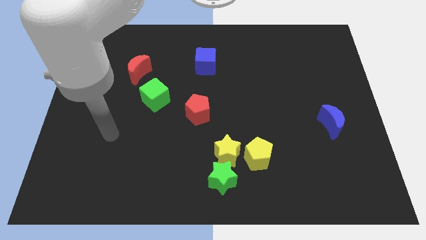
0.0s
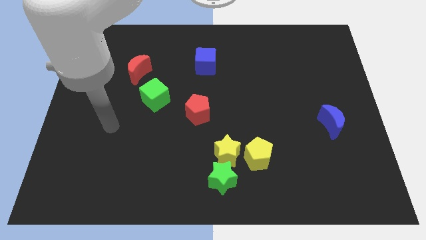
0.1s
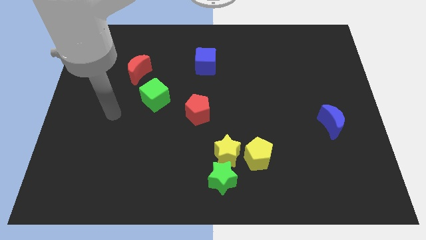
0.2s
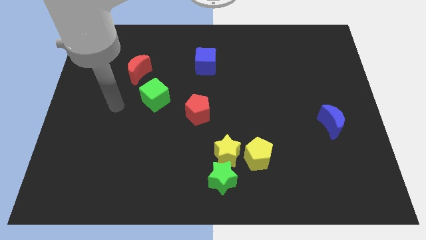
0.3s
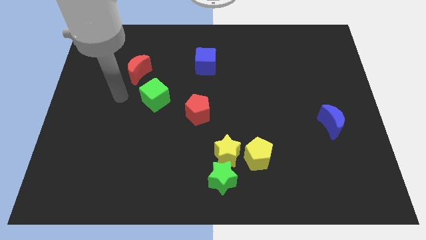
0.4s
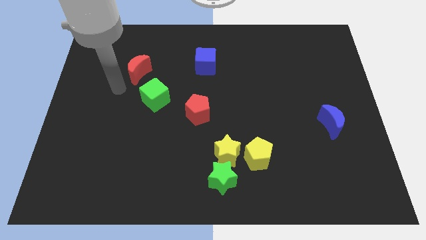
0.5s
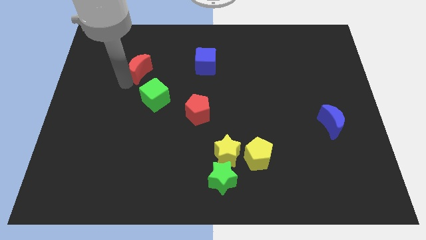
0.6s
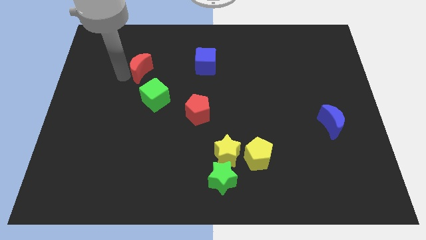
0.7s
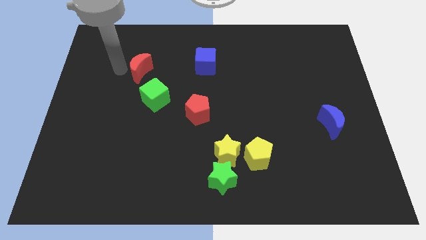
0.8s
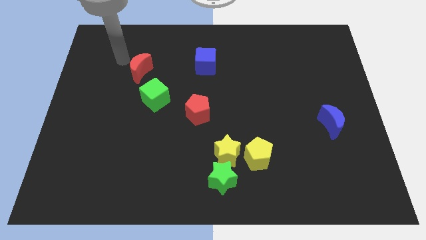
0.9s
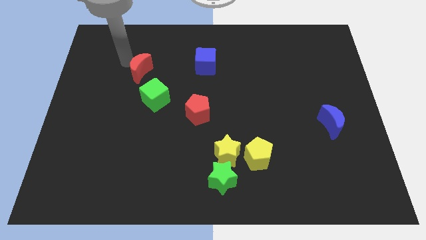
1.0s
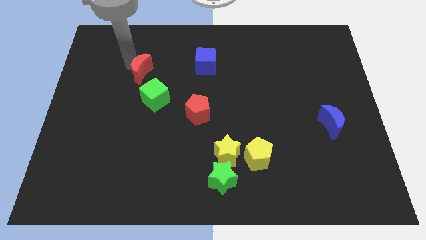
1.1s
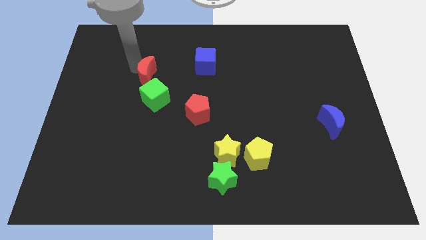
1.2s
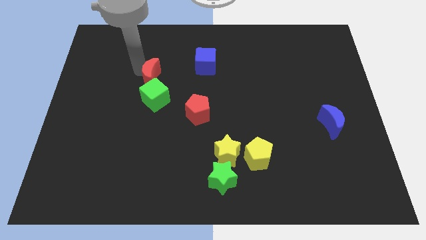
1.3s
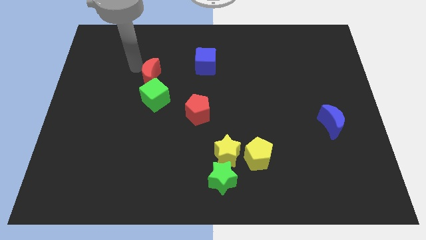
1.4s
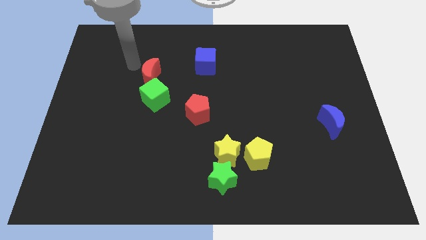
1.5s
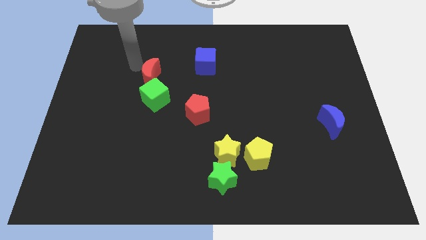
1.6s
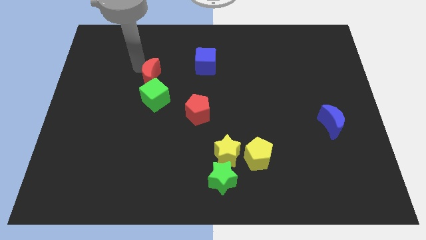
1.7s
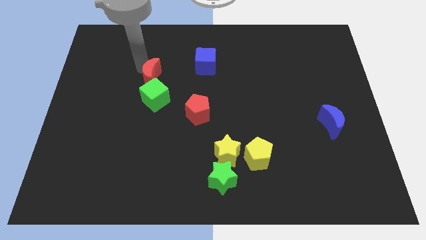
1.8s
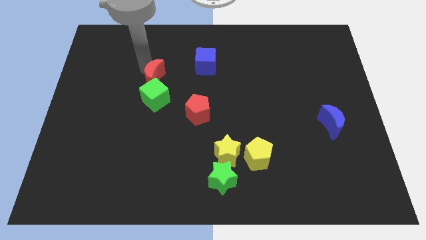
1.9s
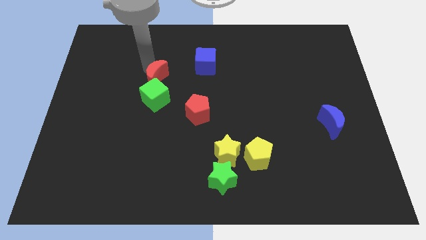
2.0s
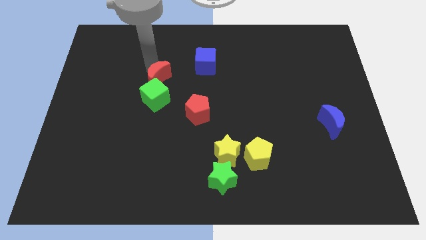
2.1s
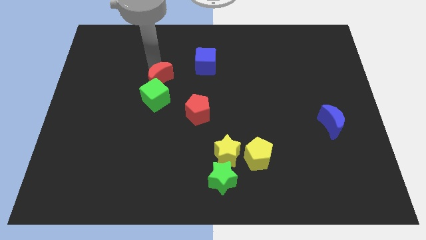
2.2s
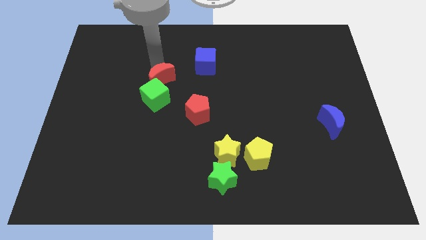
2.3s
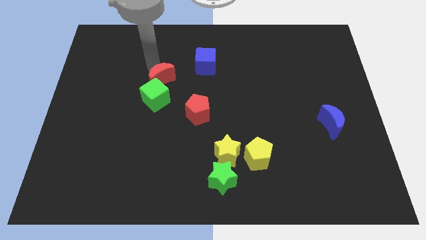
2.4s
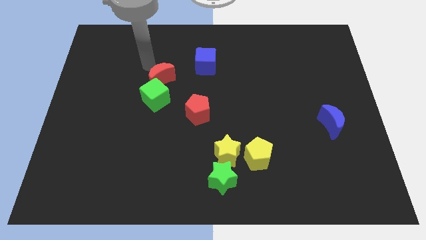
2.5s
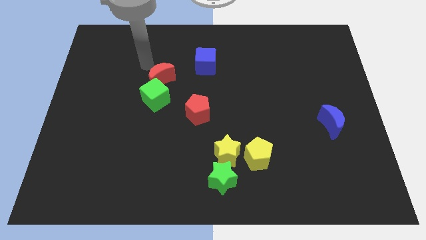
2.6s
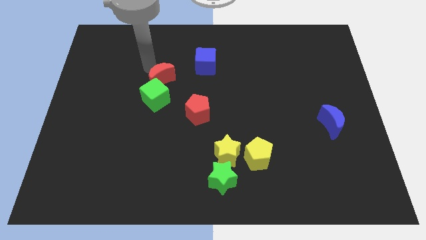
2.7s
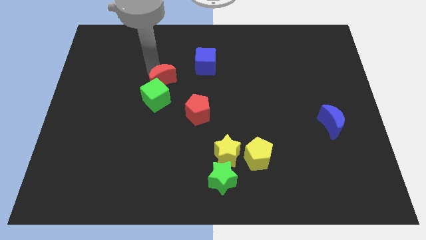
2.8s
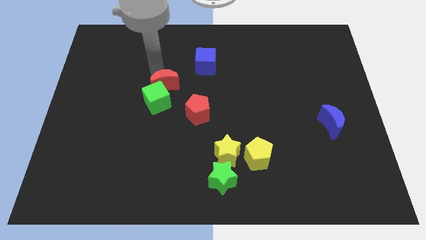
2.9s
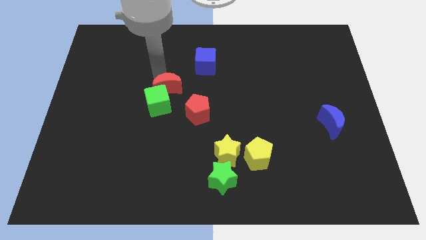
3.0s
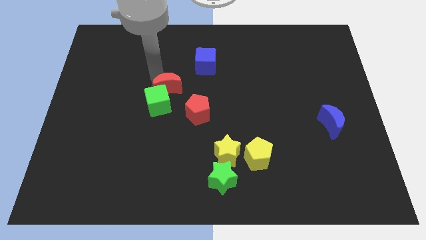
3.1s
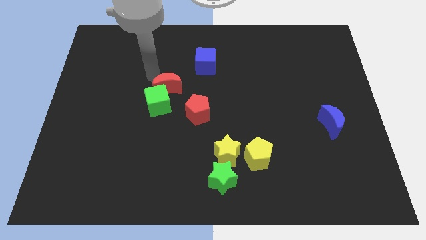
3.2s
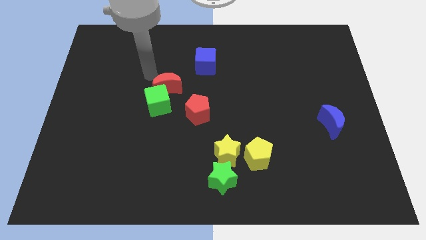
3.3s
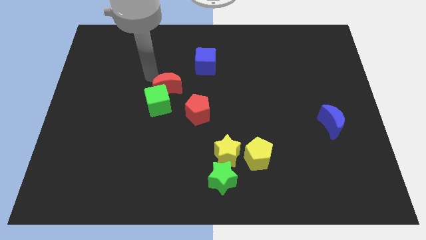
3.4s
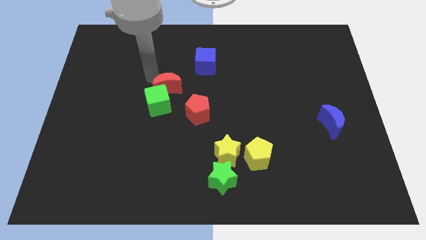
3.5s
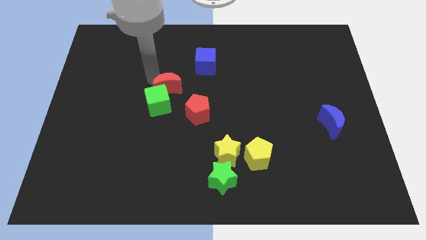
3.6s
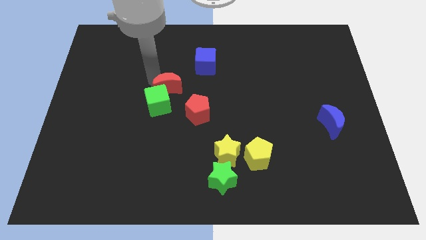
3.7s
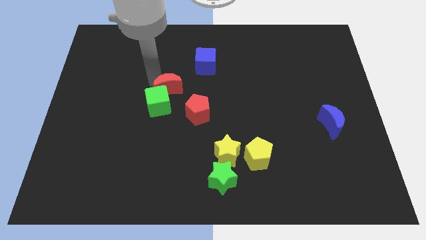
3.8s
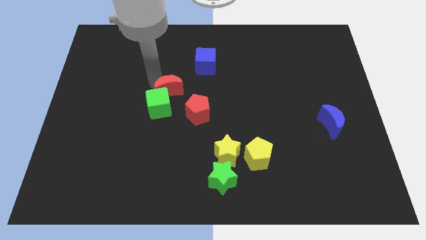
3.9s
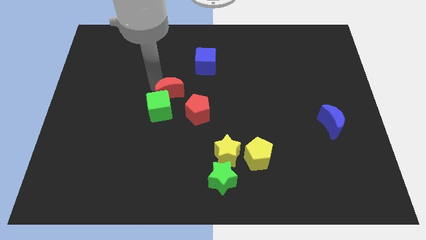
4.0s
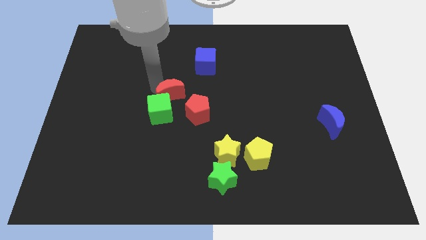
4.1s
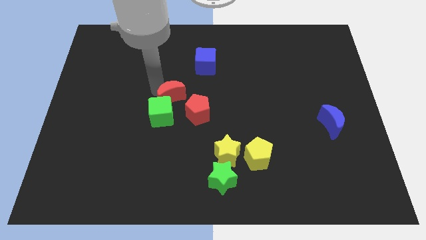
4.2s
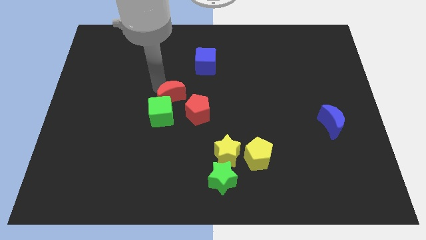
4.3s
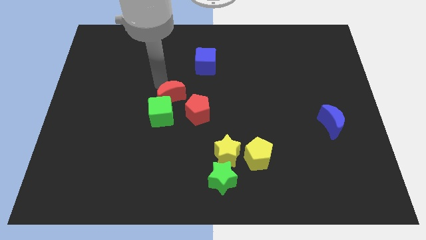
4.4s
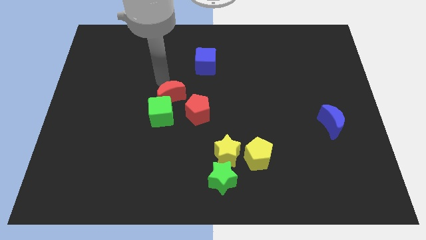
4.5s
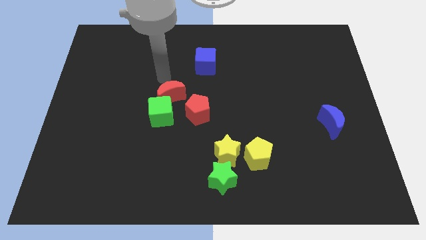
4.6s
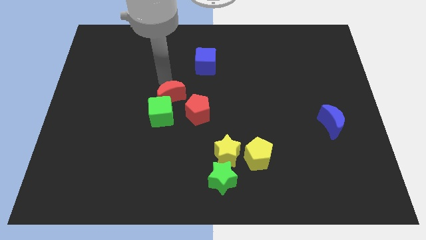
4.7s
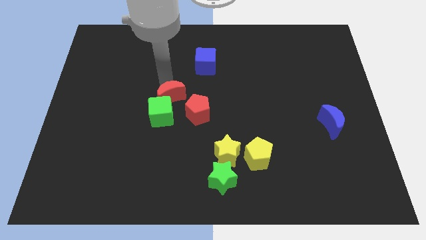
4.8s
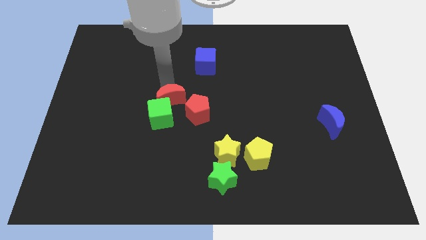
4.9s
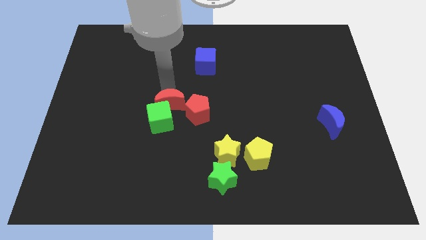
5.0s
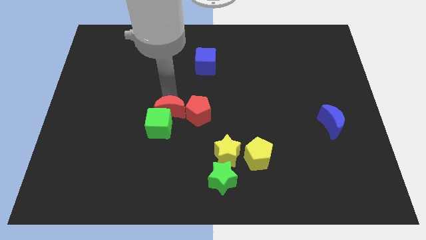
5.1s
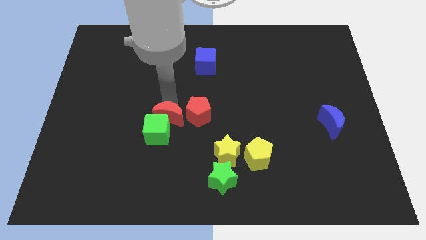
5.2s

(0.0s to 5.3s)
put the red moon to the bottom left of the red pentagon

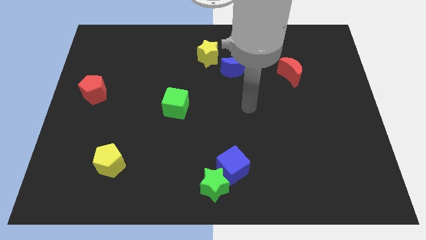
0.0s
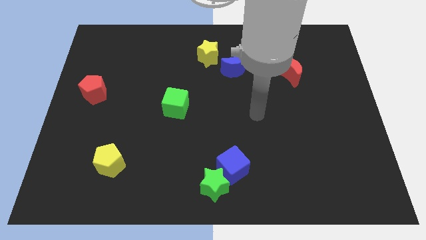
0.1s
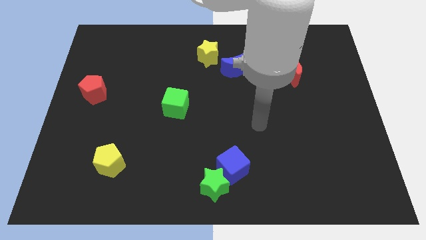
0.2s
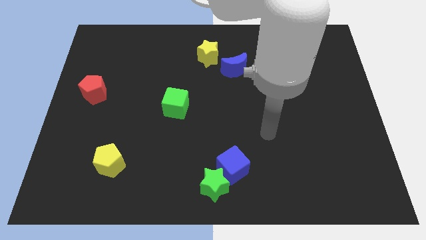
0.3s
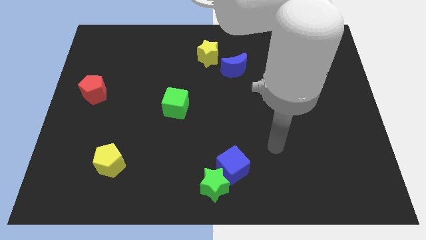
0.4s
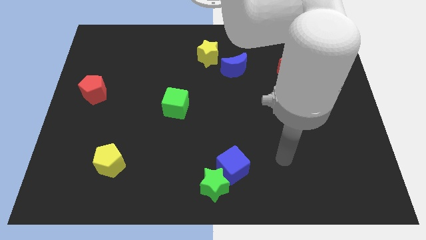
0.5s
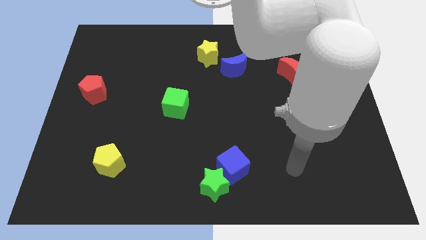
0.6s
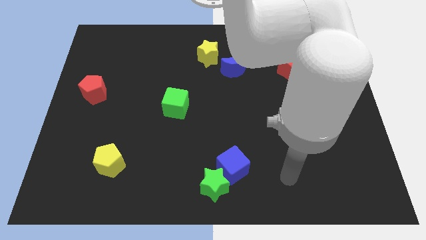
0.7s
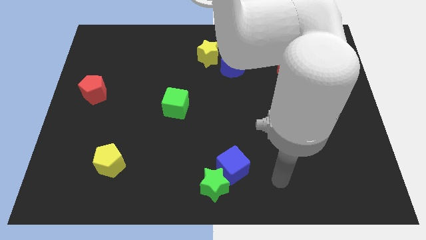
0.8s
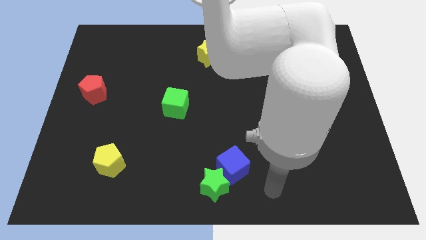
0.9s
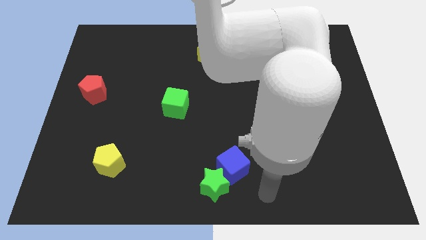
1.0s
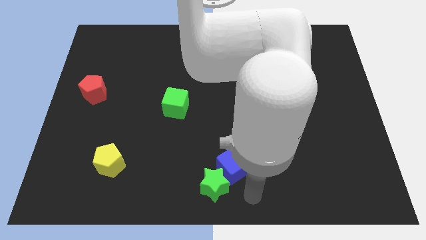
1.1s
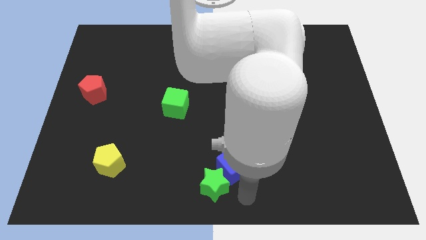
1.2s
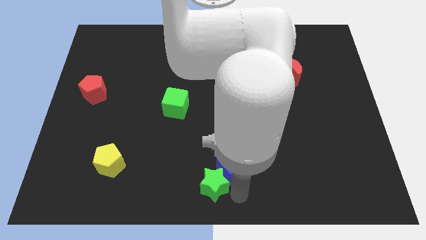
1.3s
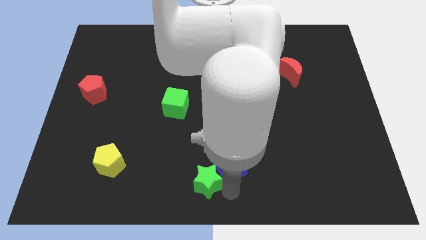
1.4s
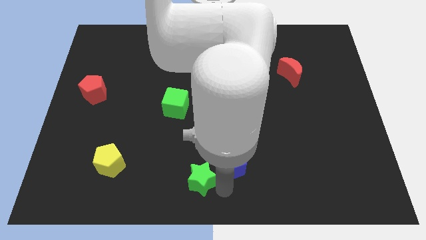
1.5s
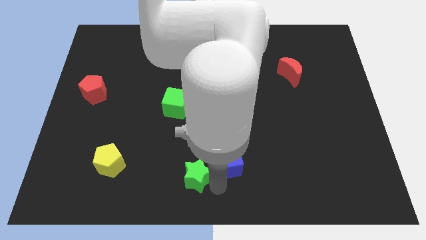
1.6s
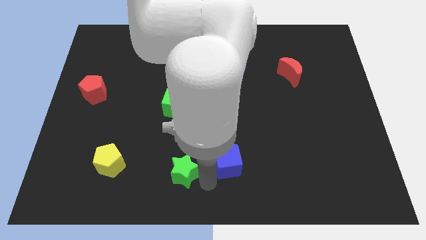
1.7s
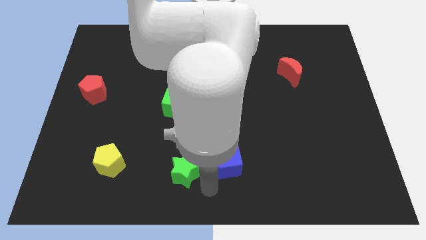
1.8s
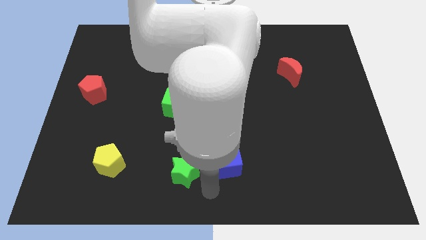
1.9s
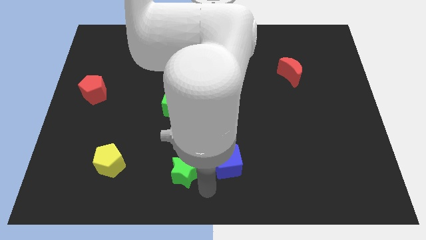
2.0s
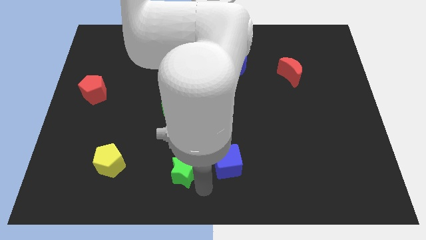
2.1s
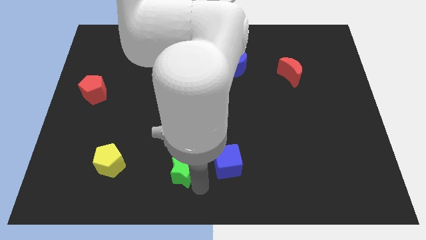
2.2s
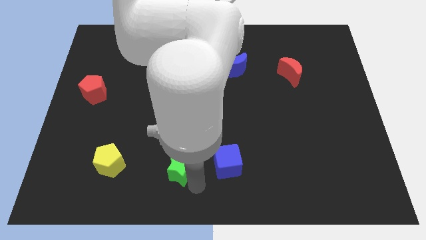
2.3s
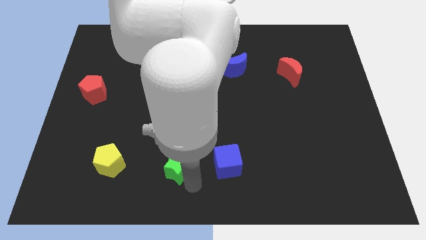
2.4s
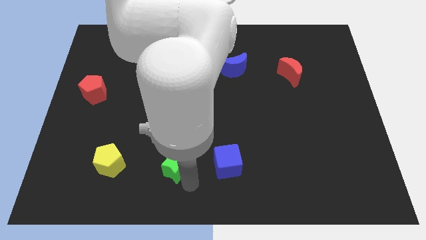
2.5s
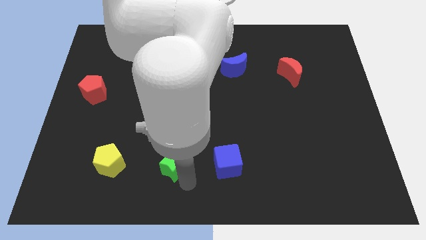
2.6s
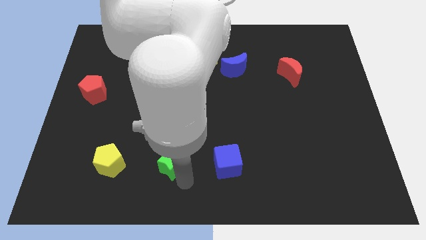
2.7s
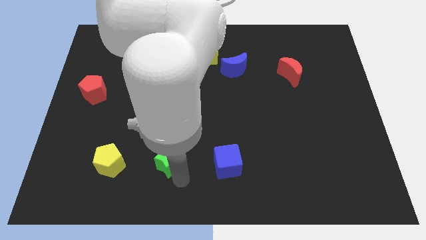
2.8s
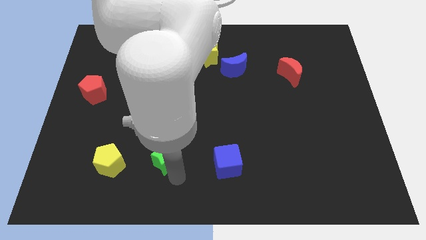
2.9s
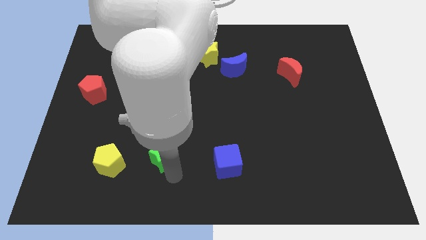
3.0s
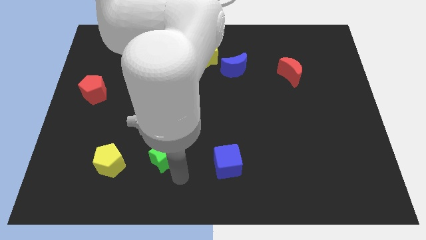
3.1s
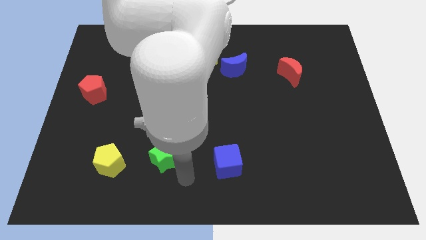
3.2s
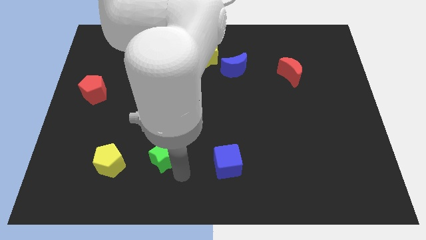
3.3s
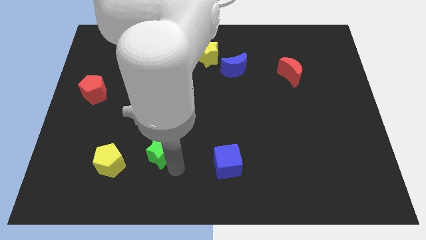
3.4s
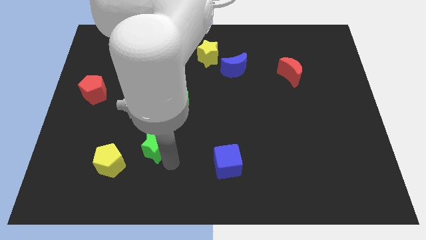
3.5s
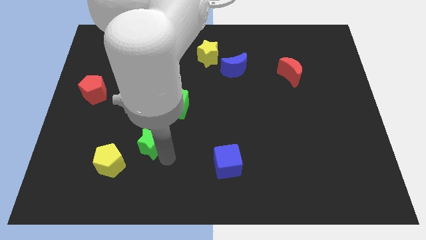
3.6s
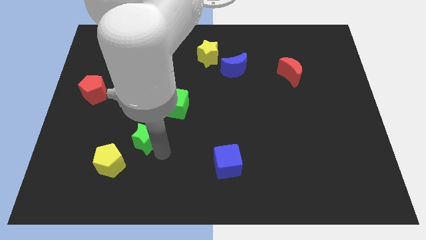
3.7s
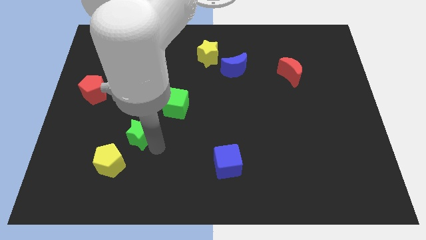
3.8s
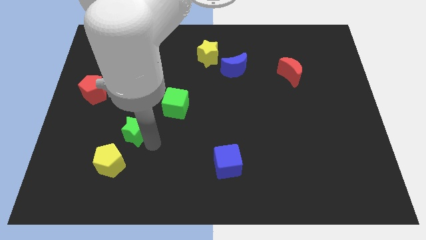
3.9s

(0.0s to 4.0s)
move the green star above the yellow pentagon
